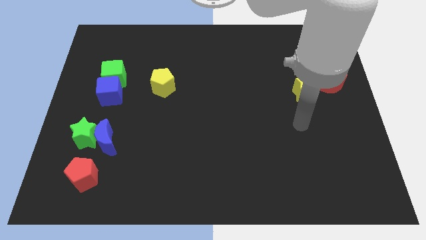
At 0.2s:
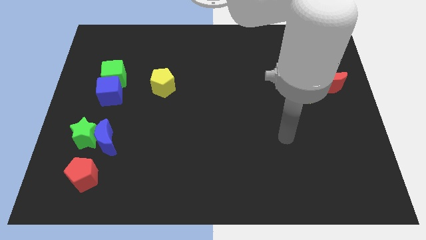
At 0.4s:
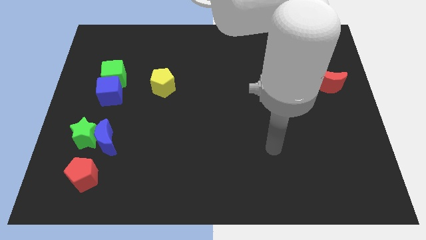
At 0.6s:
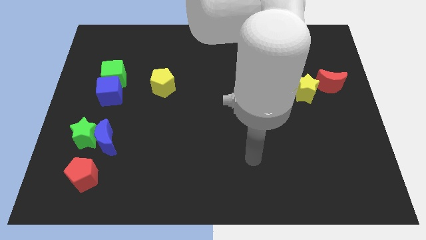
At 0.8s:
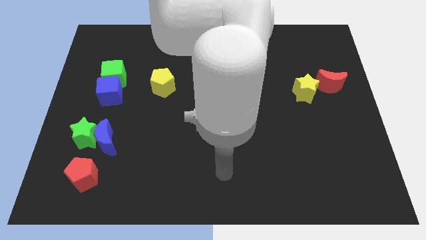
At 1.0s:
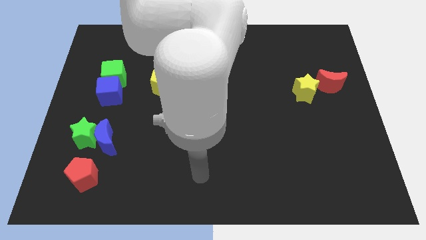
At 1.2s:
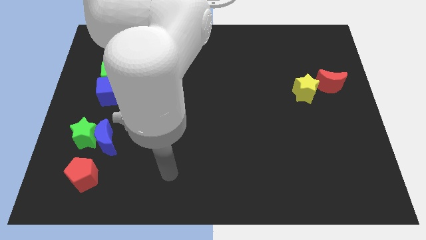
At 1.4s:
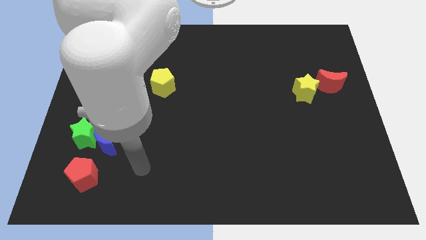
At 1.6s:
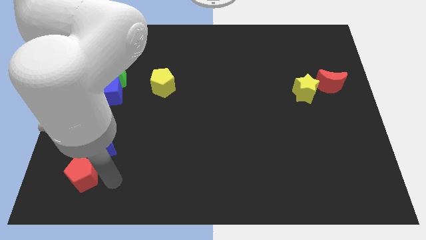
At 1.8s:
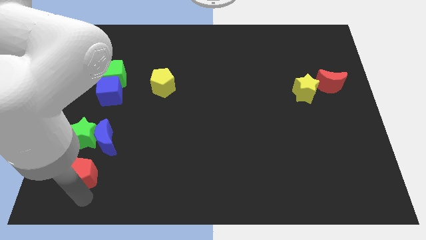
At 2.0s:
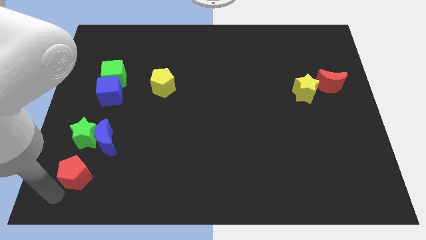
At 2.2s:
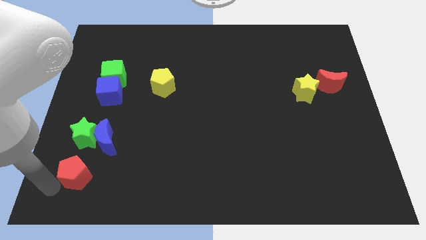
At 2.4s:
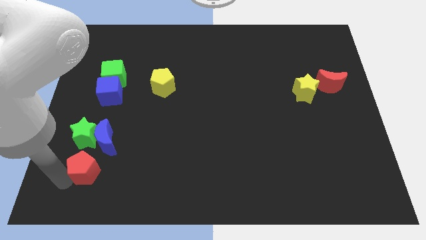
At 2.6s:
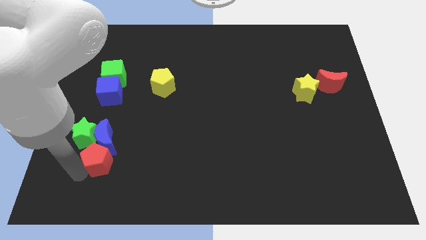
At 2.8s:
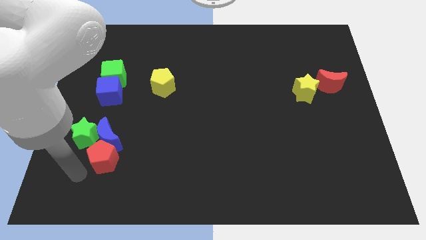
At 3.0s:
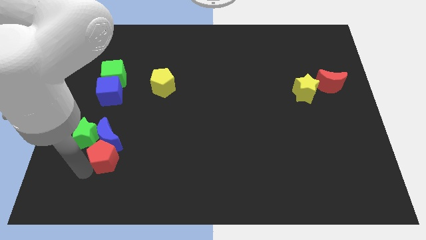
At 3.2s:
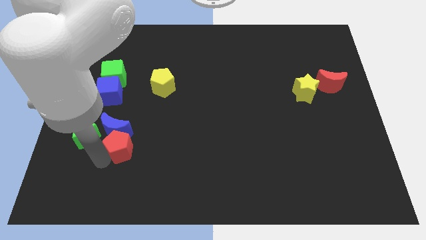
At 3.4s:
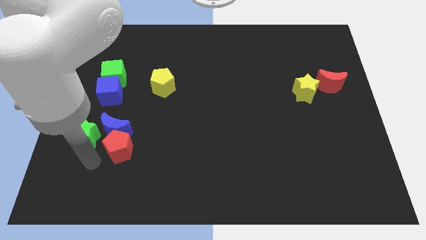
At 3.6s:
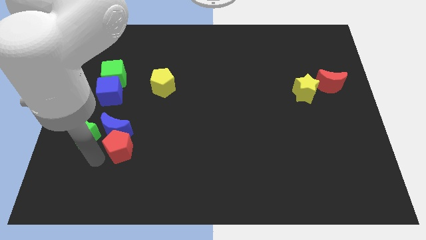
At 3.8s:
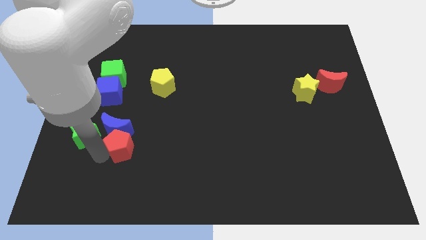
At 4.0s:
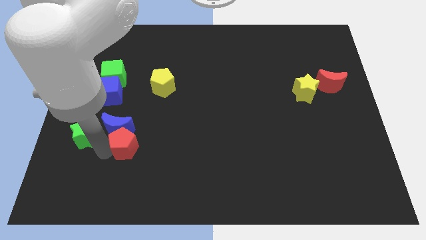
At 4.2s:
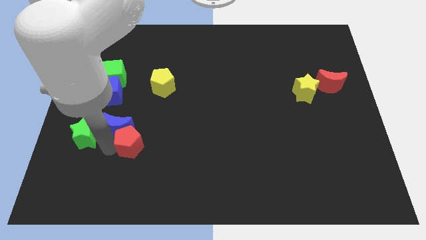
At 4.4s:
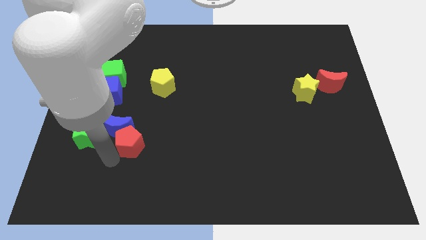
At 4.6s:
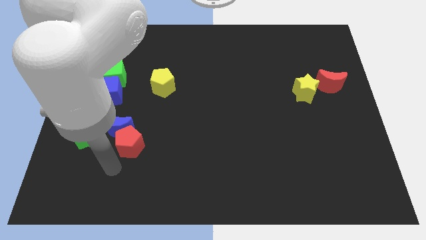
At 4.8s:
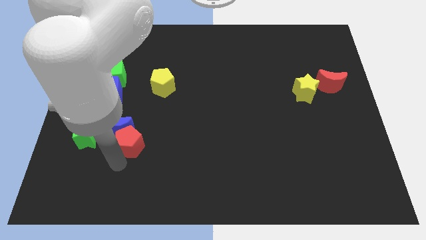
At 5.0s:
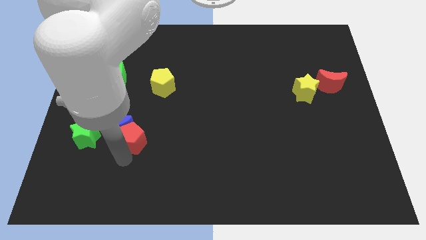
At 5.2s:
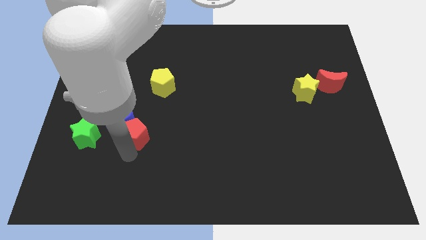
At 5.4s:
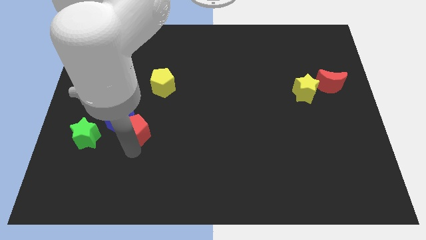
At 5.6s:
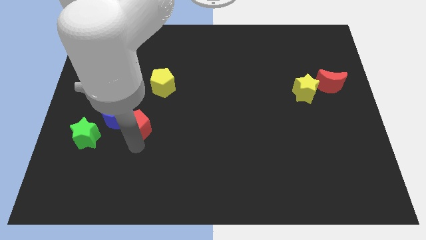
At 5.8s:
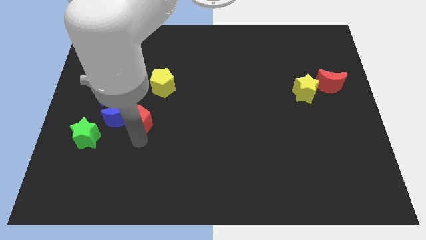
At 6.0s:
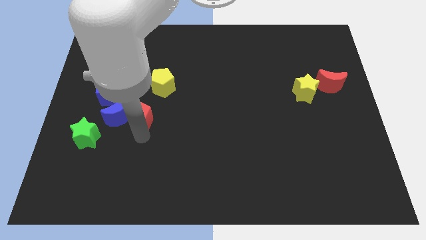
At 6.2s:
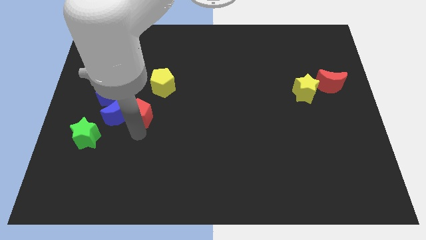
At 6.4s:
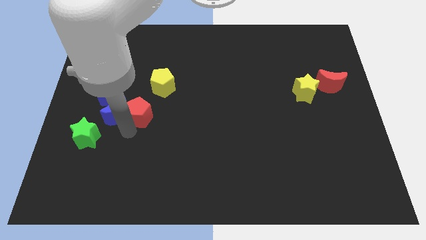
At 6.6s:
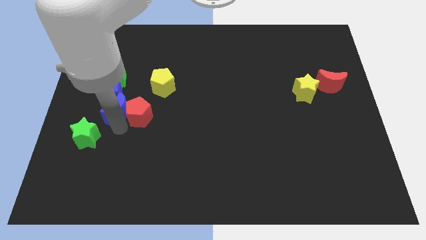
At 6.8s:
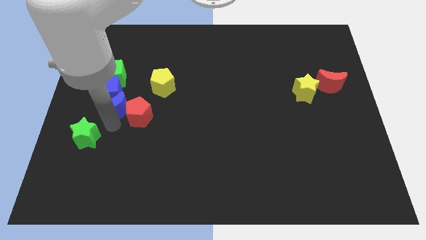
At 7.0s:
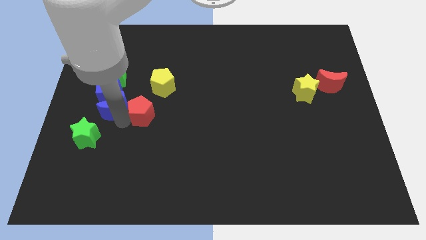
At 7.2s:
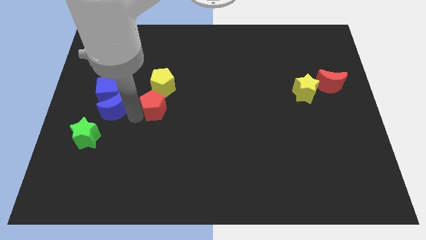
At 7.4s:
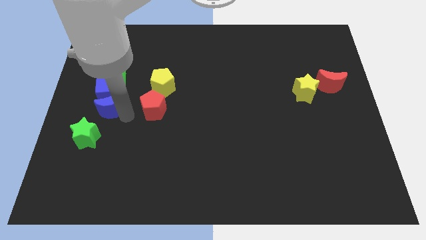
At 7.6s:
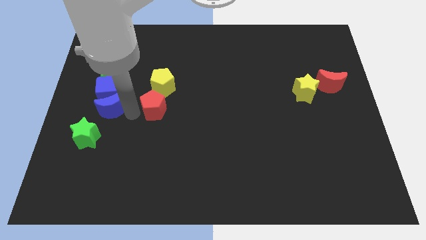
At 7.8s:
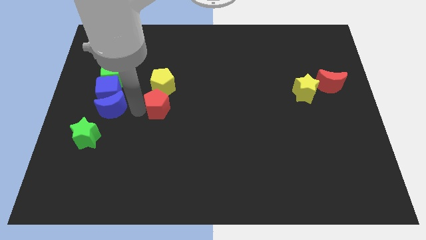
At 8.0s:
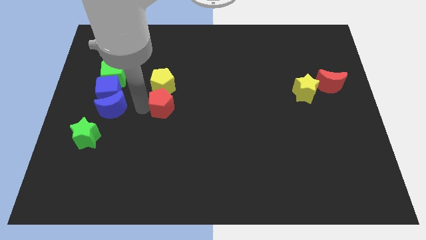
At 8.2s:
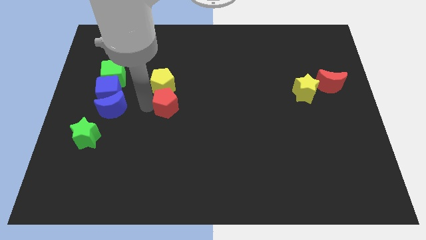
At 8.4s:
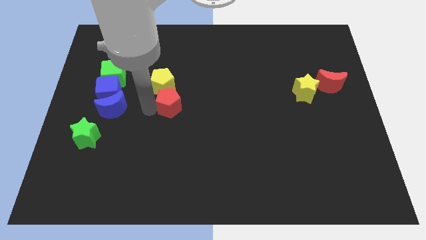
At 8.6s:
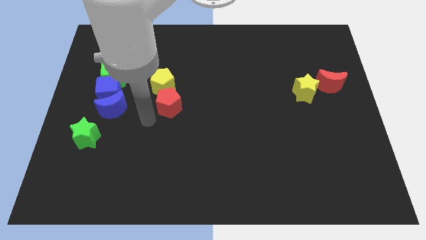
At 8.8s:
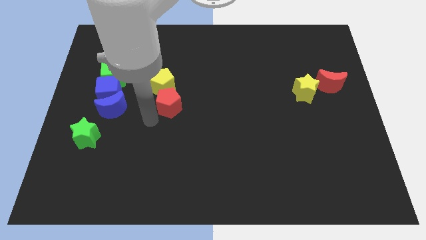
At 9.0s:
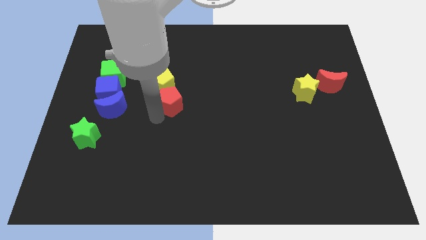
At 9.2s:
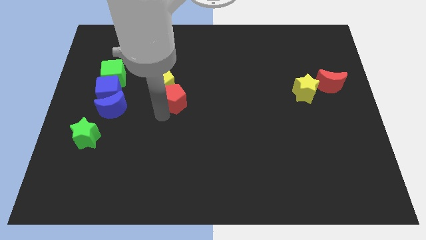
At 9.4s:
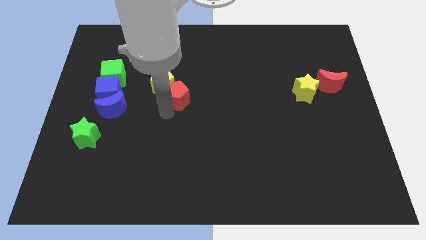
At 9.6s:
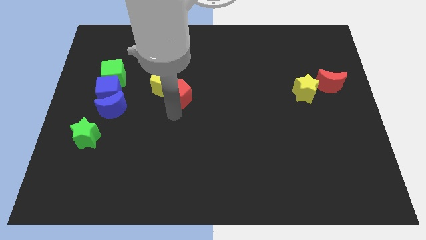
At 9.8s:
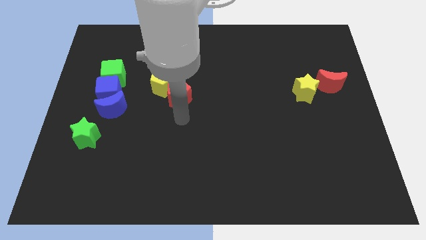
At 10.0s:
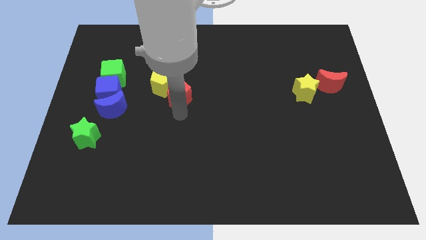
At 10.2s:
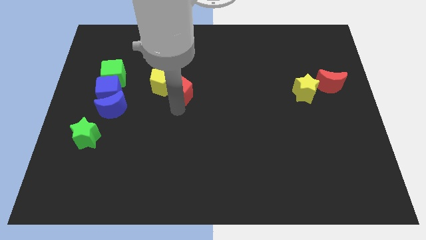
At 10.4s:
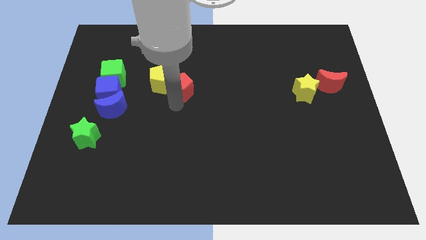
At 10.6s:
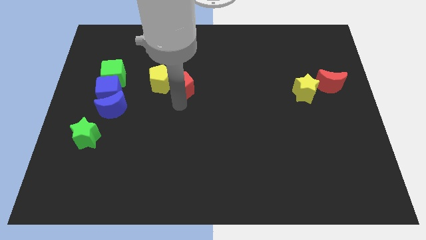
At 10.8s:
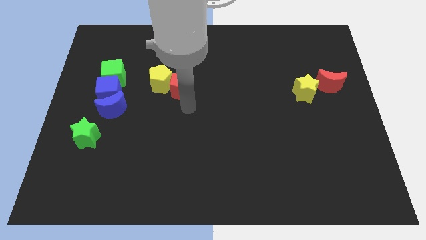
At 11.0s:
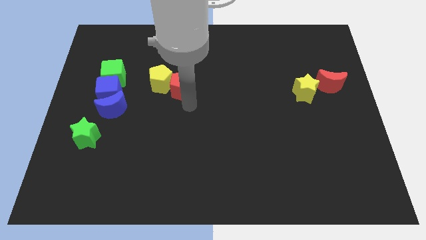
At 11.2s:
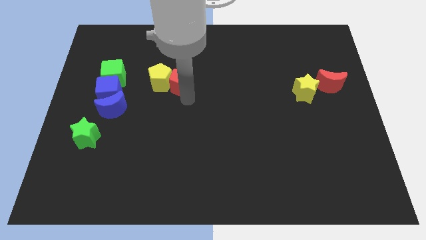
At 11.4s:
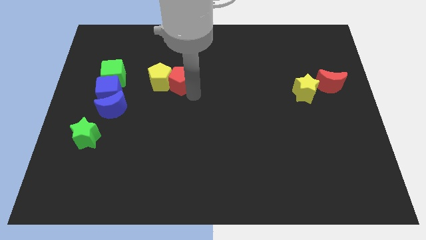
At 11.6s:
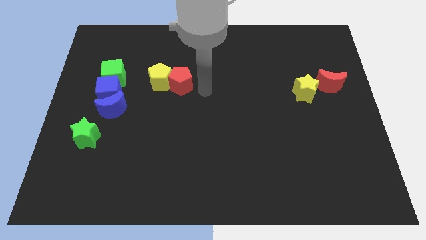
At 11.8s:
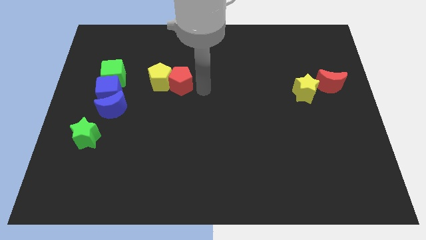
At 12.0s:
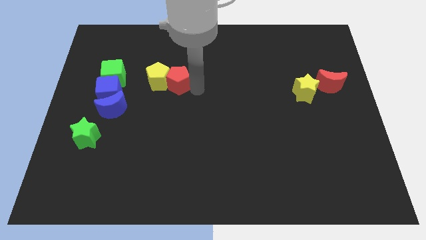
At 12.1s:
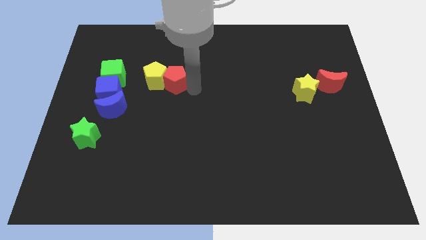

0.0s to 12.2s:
move the red pentagon right of the green cube
